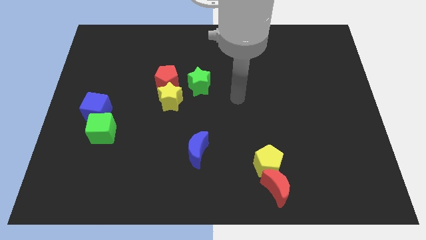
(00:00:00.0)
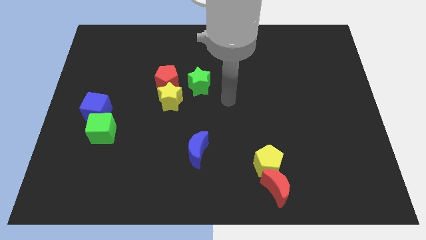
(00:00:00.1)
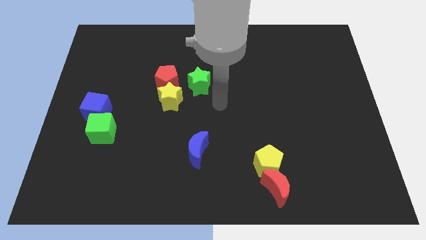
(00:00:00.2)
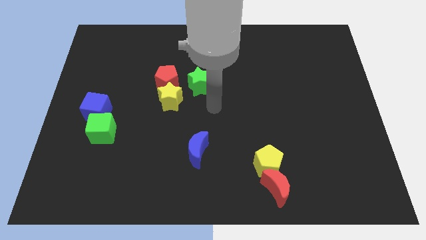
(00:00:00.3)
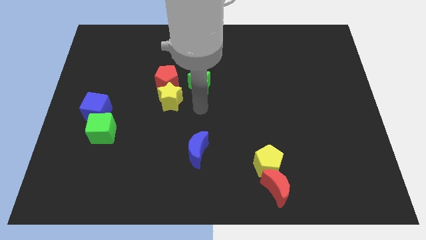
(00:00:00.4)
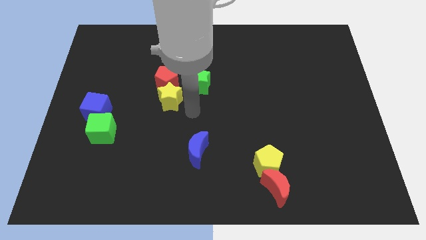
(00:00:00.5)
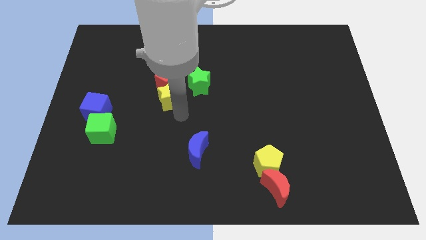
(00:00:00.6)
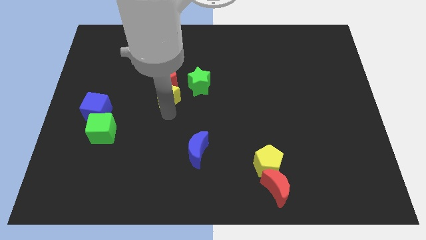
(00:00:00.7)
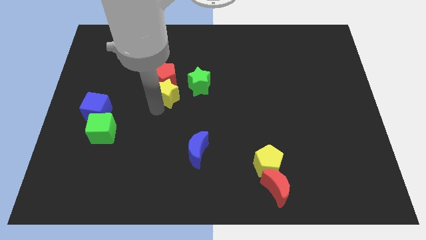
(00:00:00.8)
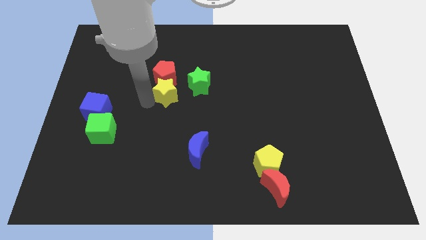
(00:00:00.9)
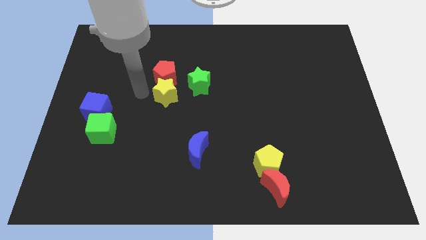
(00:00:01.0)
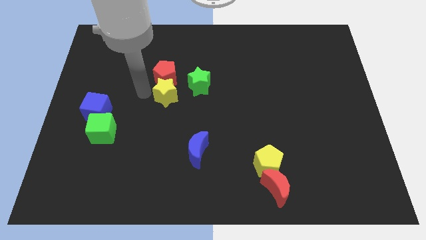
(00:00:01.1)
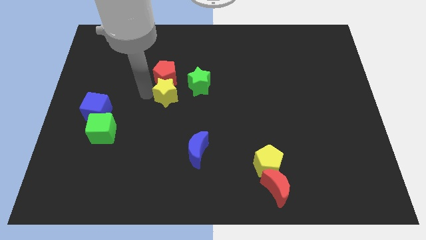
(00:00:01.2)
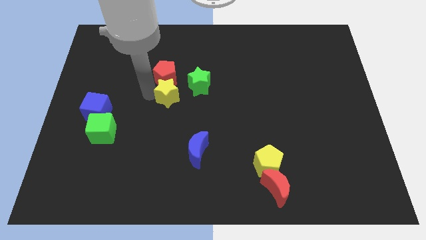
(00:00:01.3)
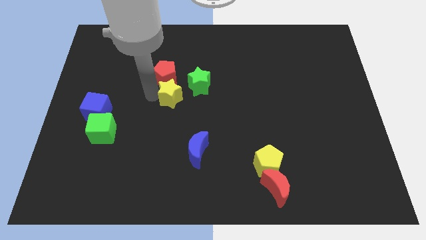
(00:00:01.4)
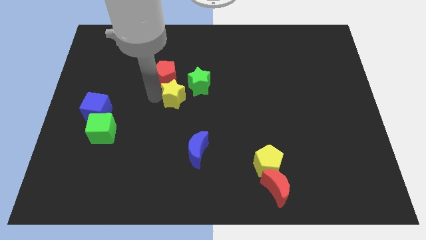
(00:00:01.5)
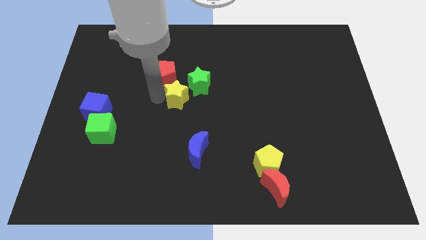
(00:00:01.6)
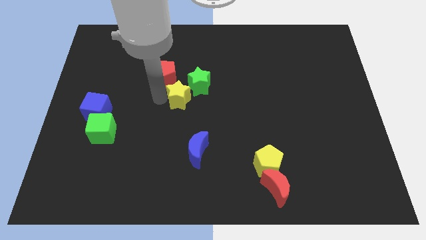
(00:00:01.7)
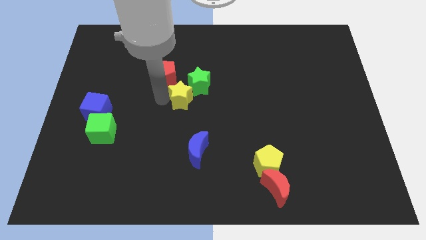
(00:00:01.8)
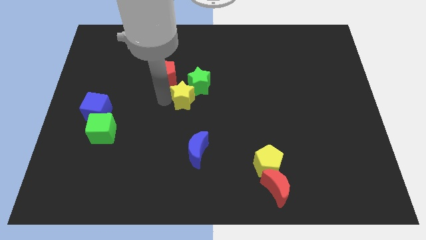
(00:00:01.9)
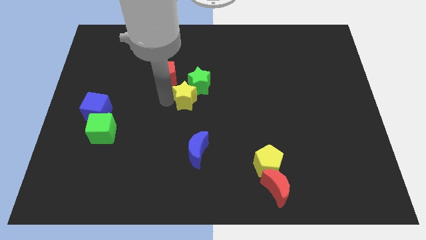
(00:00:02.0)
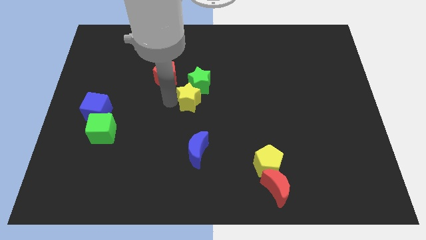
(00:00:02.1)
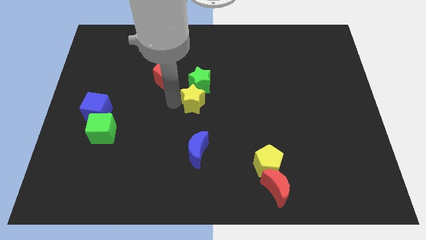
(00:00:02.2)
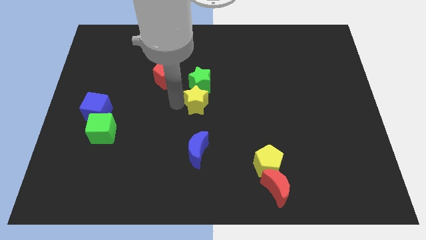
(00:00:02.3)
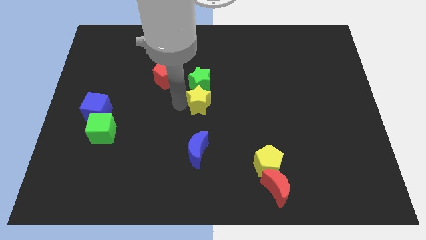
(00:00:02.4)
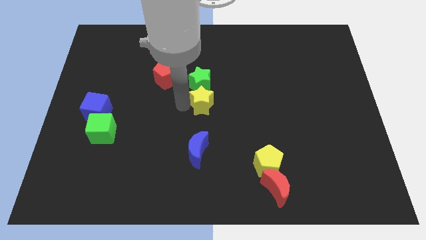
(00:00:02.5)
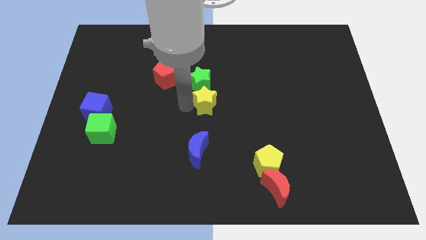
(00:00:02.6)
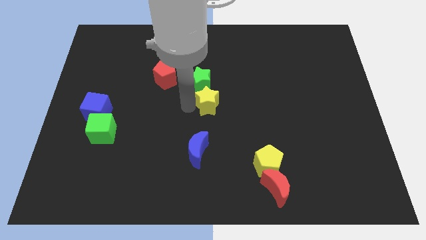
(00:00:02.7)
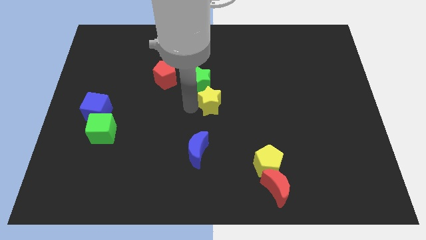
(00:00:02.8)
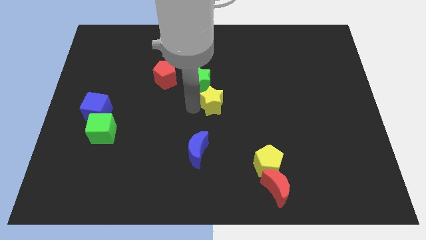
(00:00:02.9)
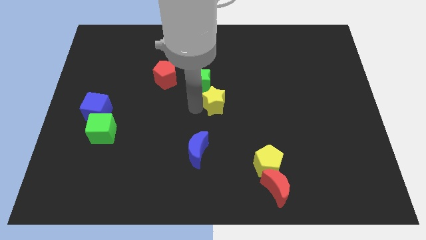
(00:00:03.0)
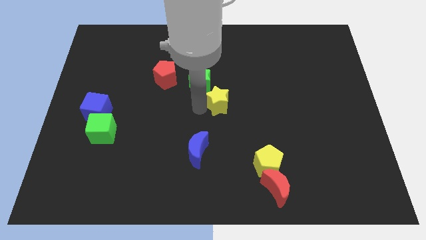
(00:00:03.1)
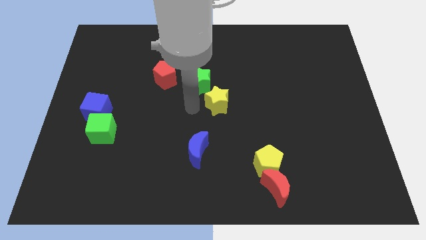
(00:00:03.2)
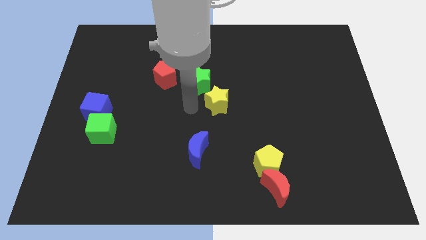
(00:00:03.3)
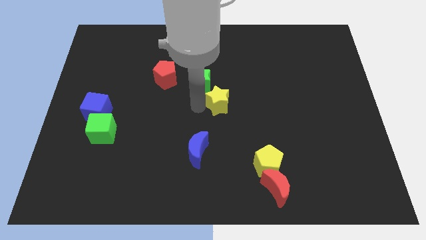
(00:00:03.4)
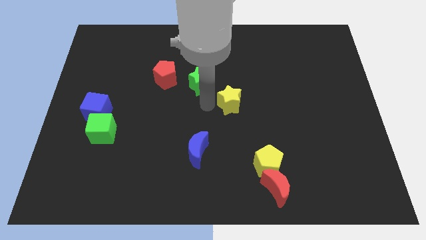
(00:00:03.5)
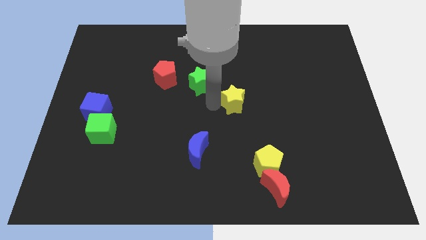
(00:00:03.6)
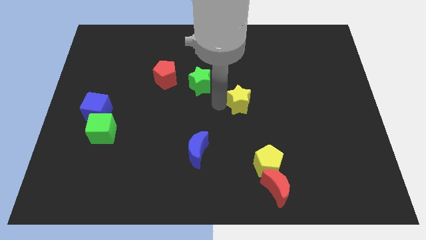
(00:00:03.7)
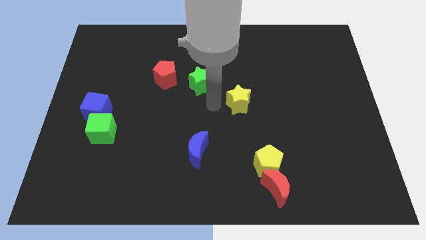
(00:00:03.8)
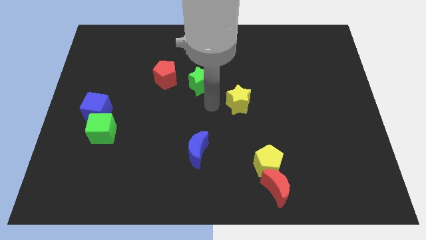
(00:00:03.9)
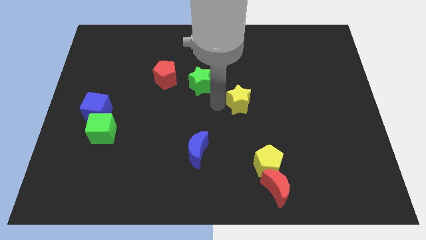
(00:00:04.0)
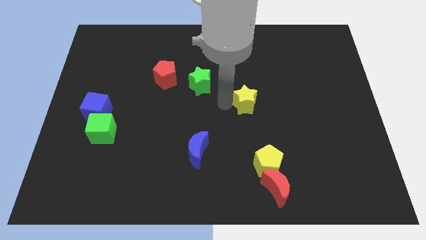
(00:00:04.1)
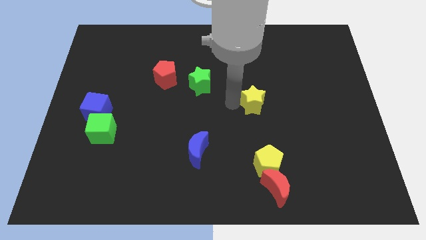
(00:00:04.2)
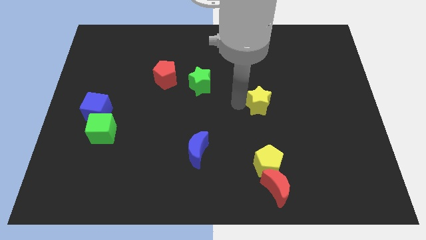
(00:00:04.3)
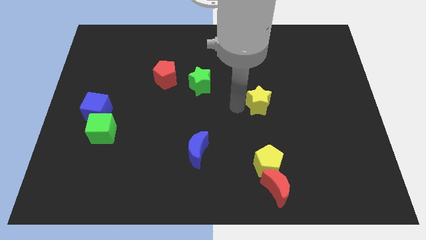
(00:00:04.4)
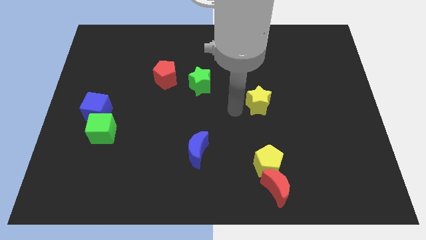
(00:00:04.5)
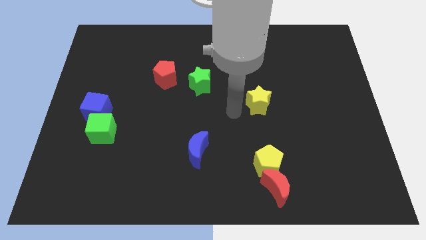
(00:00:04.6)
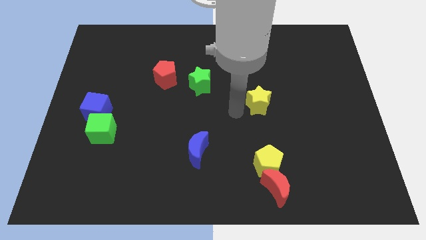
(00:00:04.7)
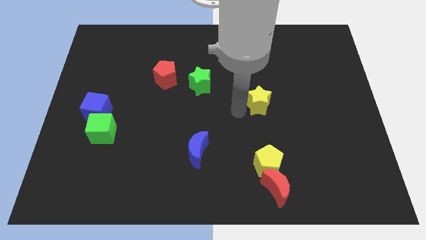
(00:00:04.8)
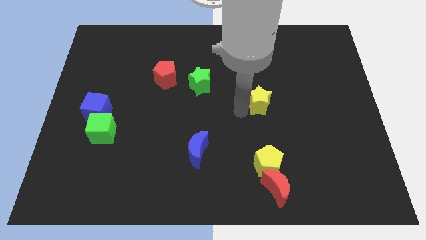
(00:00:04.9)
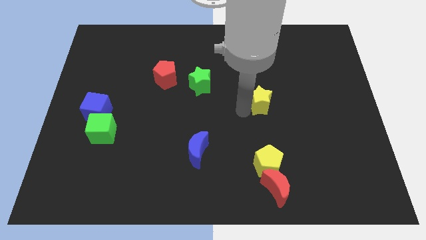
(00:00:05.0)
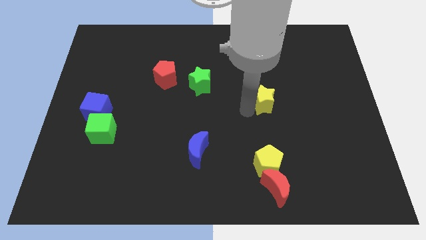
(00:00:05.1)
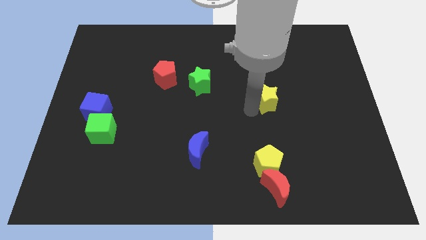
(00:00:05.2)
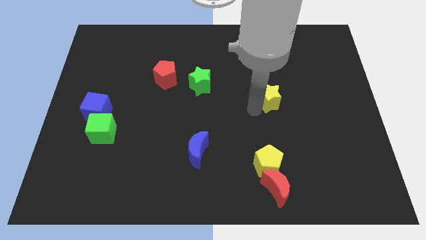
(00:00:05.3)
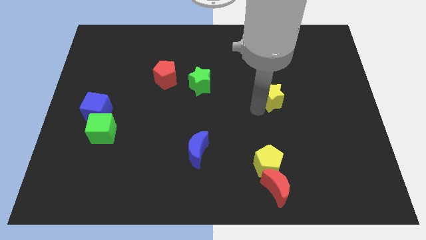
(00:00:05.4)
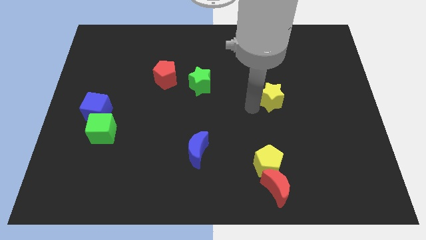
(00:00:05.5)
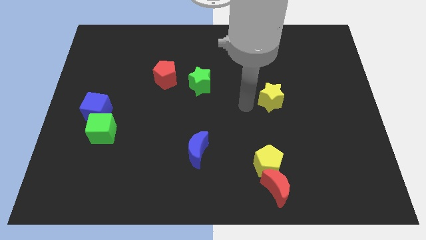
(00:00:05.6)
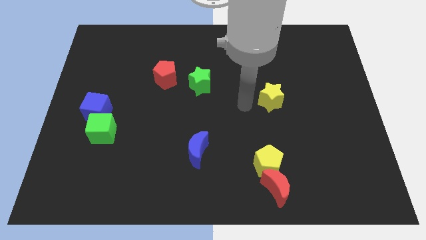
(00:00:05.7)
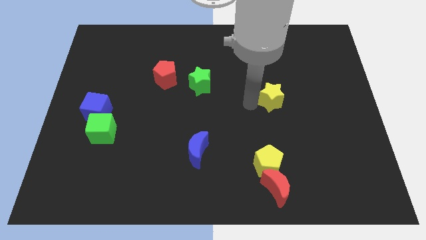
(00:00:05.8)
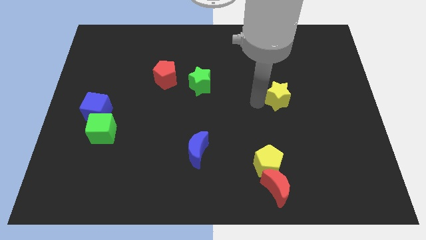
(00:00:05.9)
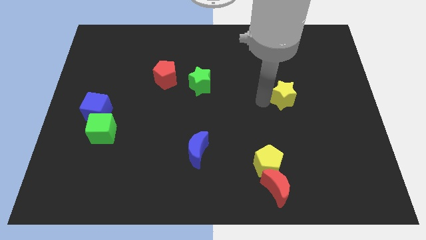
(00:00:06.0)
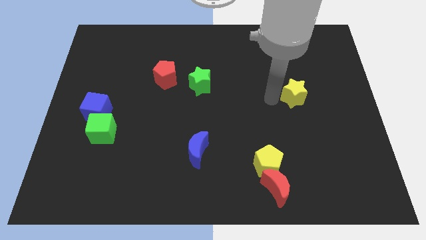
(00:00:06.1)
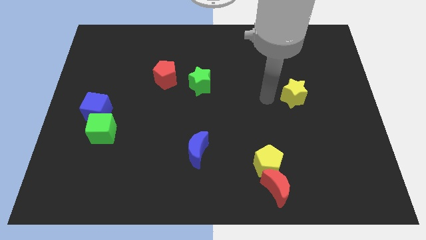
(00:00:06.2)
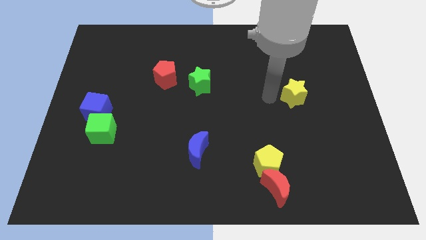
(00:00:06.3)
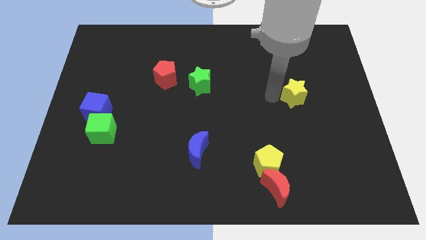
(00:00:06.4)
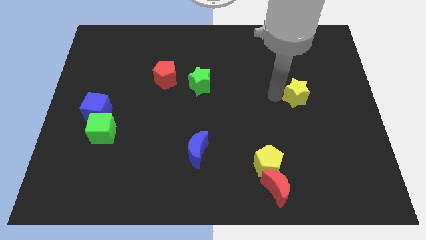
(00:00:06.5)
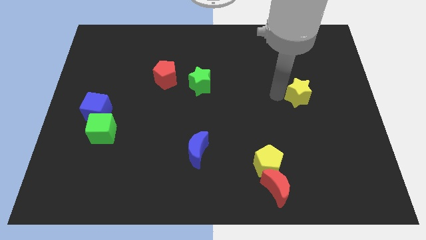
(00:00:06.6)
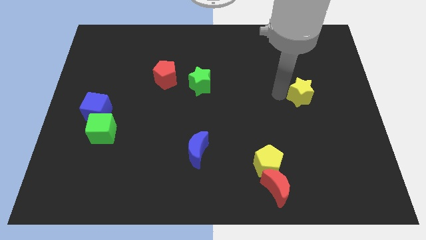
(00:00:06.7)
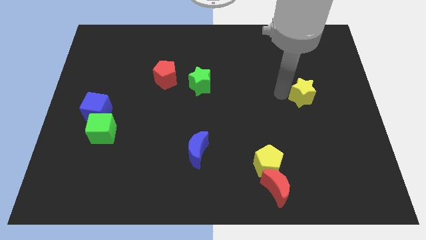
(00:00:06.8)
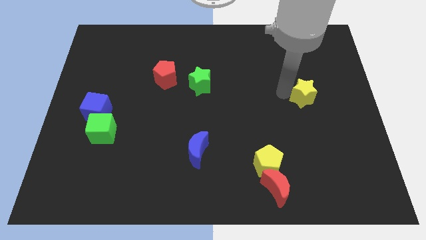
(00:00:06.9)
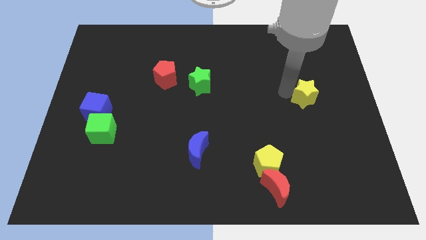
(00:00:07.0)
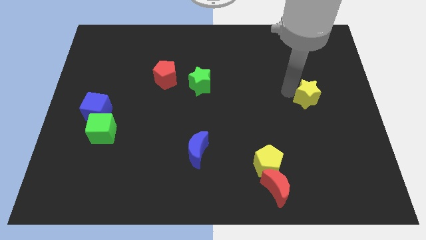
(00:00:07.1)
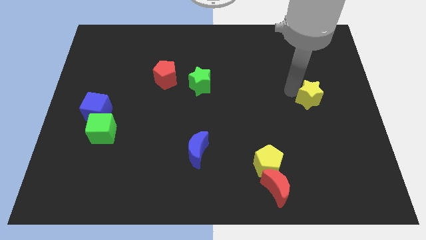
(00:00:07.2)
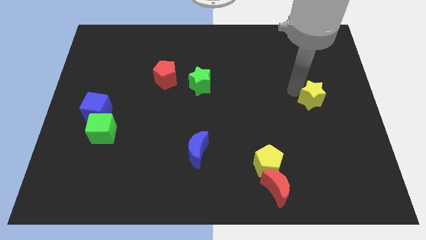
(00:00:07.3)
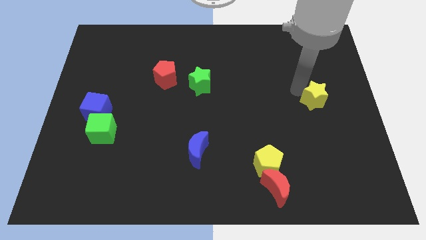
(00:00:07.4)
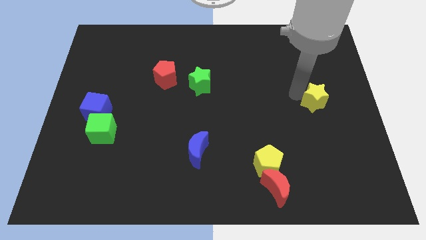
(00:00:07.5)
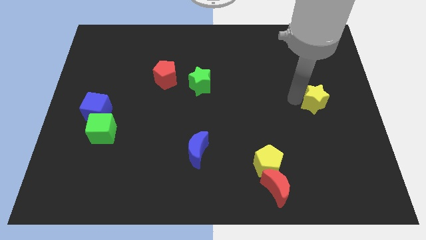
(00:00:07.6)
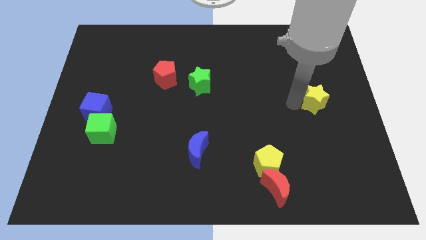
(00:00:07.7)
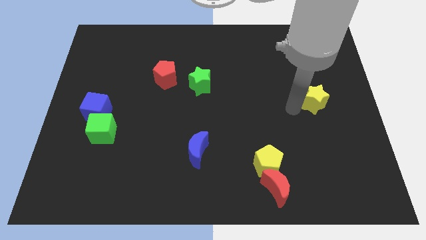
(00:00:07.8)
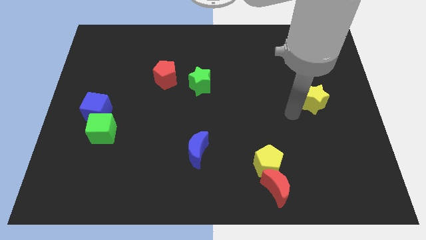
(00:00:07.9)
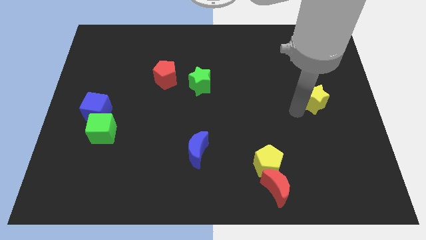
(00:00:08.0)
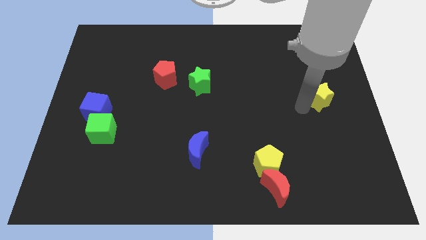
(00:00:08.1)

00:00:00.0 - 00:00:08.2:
slide the yellow star to the center right
